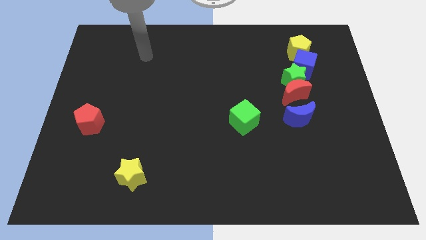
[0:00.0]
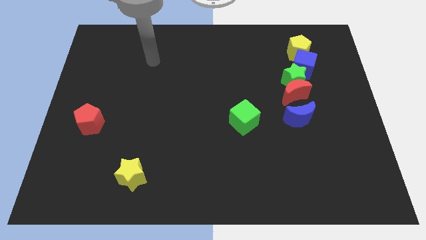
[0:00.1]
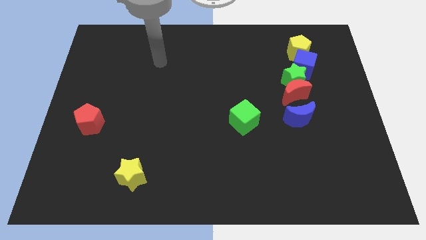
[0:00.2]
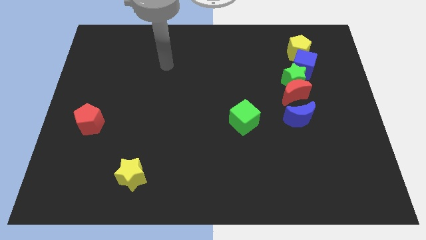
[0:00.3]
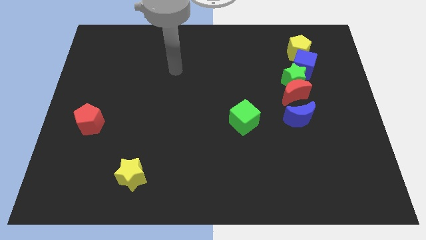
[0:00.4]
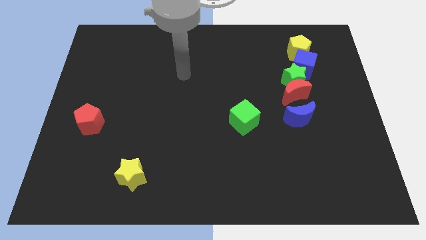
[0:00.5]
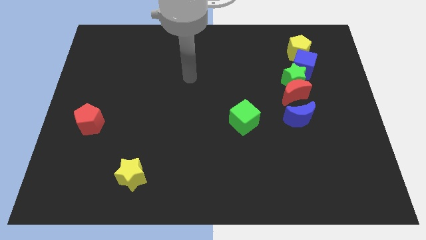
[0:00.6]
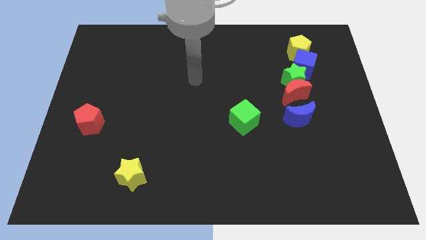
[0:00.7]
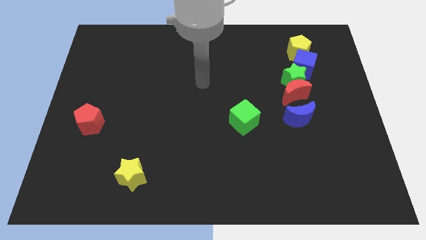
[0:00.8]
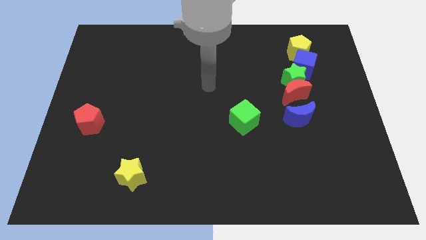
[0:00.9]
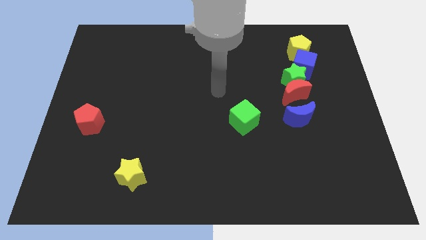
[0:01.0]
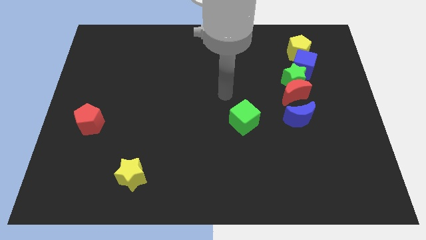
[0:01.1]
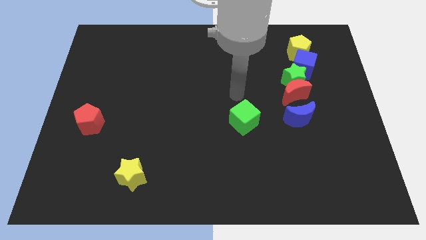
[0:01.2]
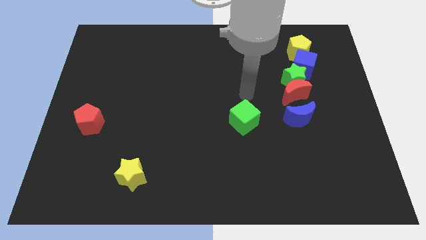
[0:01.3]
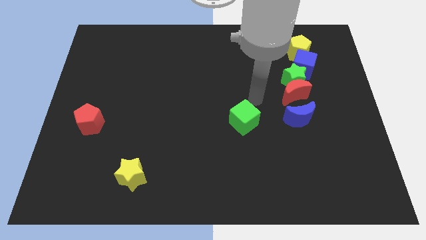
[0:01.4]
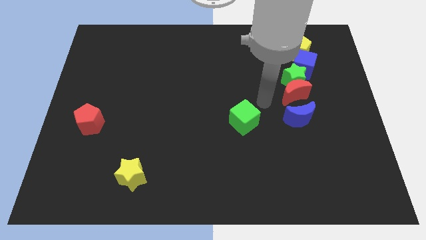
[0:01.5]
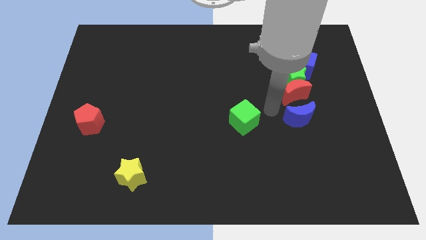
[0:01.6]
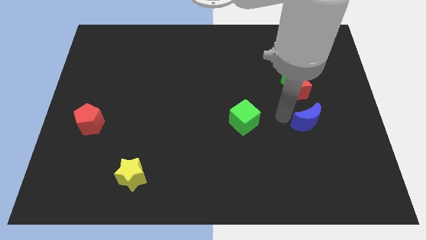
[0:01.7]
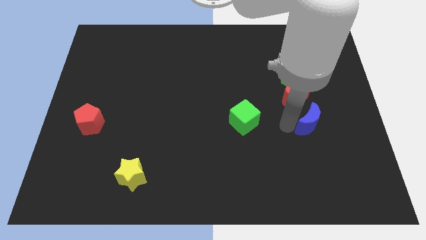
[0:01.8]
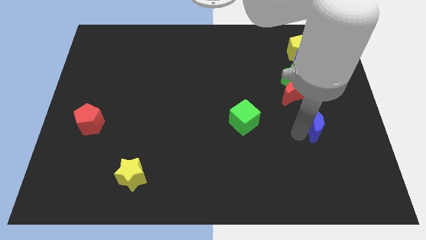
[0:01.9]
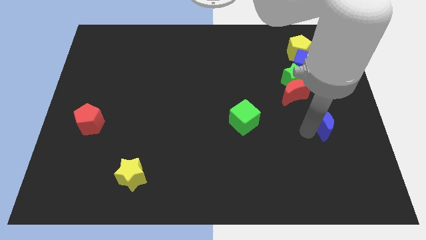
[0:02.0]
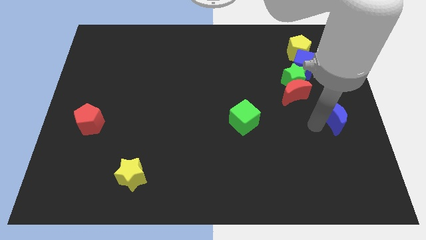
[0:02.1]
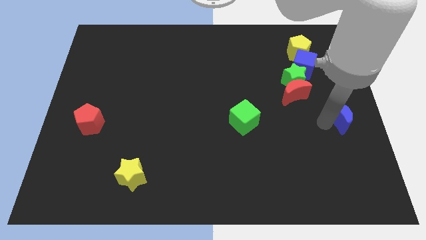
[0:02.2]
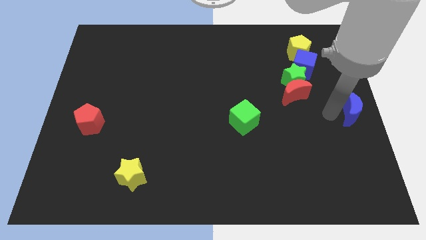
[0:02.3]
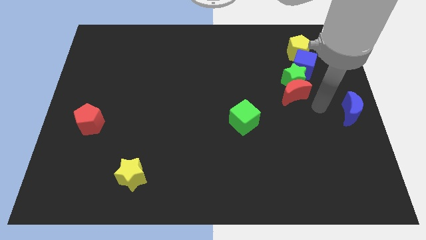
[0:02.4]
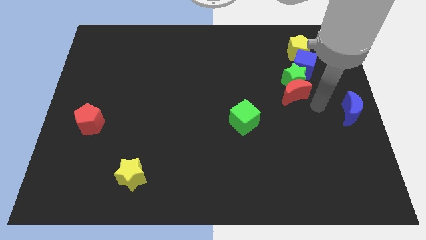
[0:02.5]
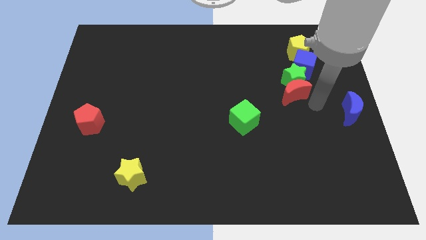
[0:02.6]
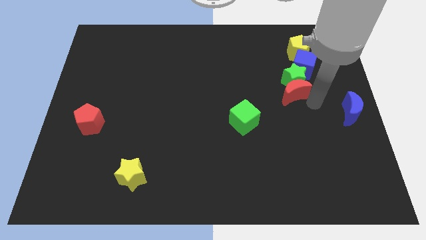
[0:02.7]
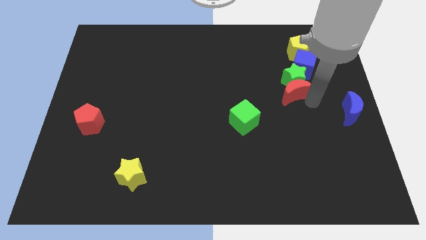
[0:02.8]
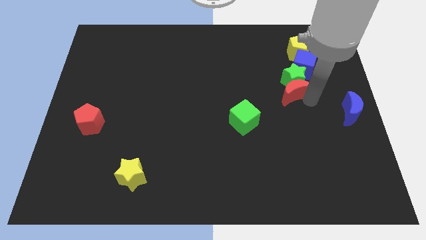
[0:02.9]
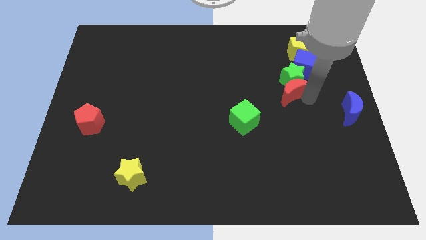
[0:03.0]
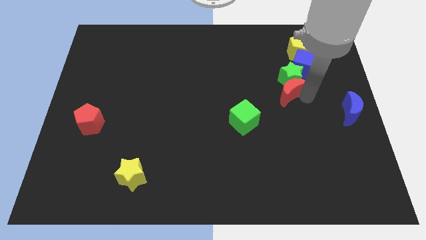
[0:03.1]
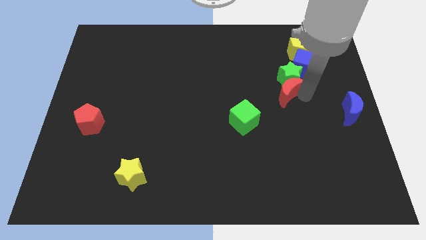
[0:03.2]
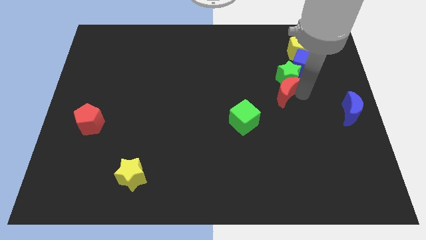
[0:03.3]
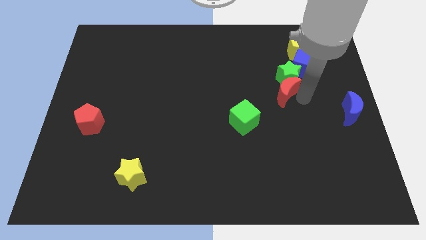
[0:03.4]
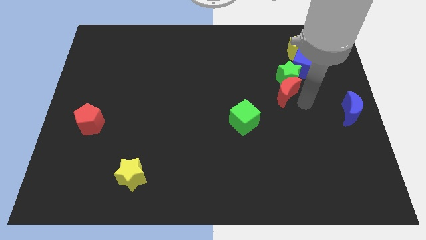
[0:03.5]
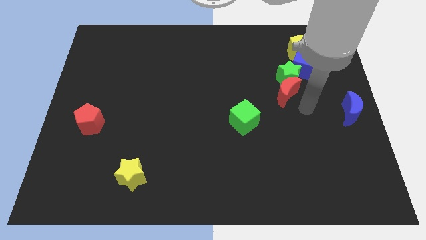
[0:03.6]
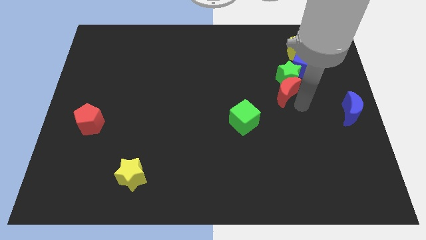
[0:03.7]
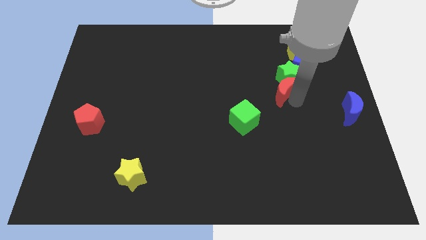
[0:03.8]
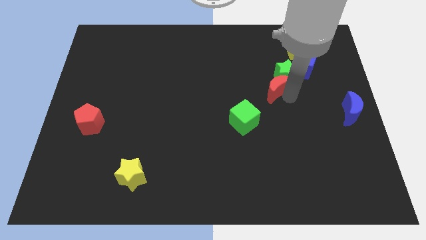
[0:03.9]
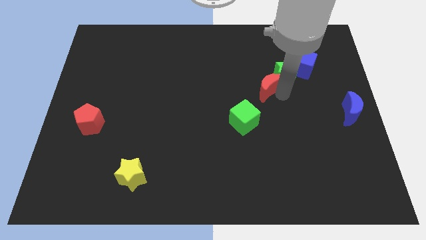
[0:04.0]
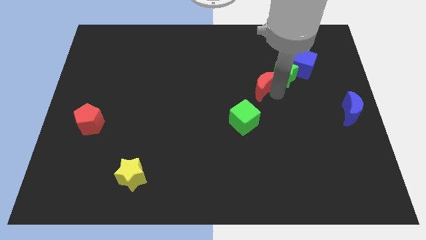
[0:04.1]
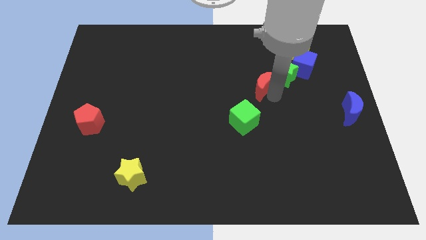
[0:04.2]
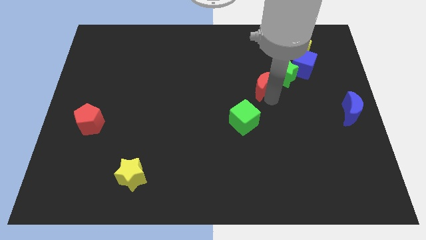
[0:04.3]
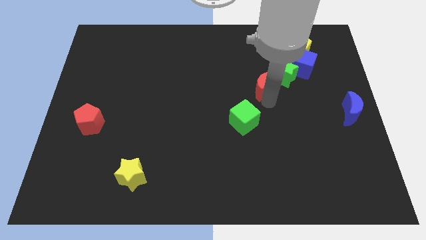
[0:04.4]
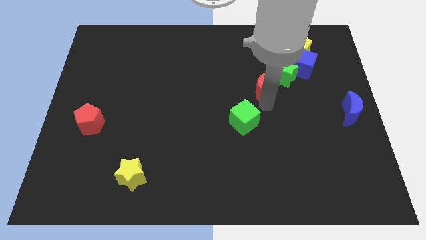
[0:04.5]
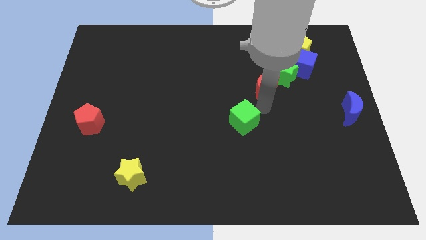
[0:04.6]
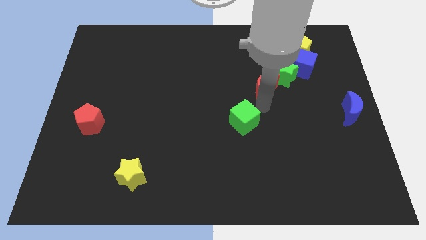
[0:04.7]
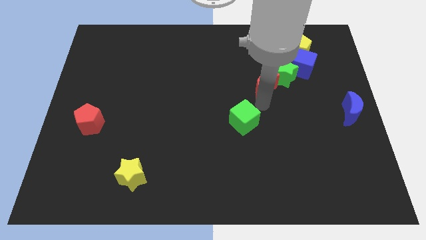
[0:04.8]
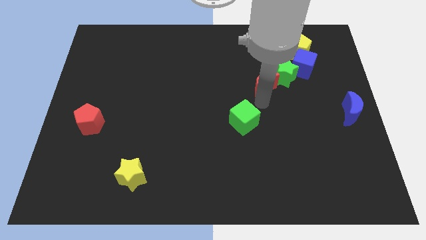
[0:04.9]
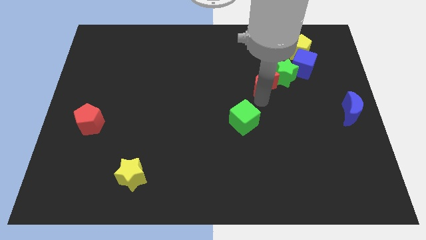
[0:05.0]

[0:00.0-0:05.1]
slightly push the red moon diagonally up and left

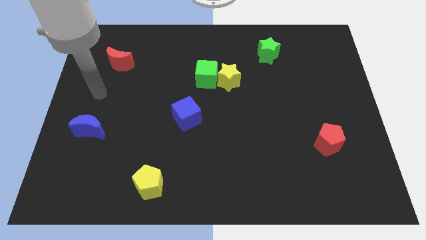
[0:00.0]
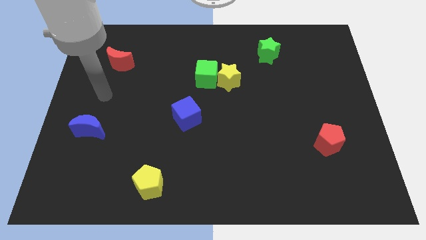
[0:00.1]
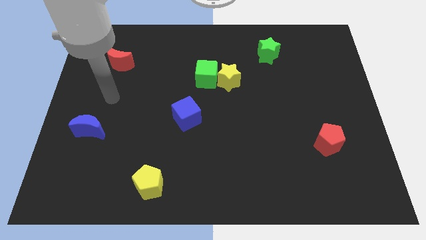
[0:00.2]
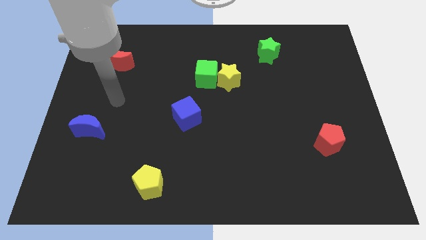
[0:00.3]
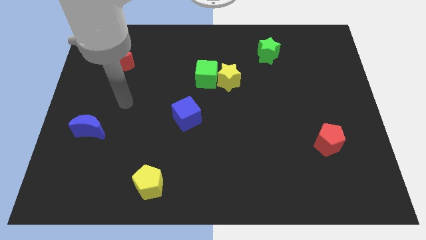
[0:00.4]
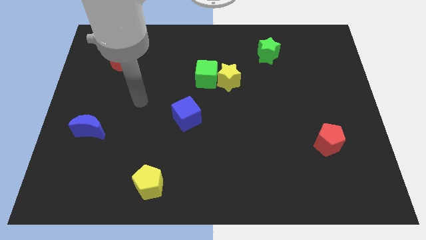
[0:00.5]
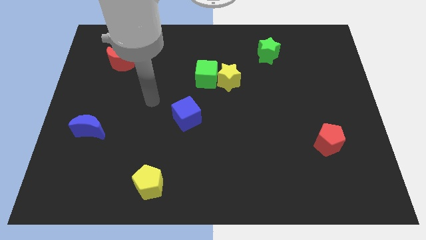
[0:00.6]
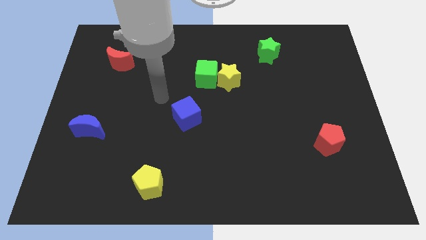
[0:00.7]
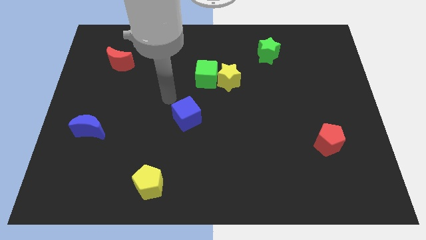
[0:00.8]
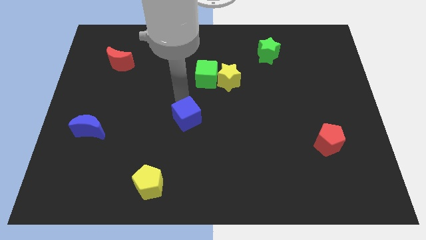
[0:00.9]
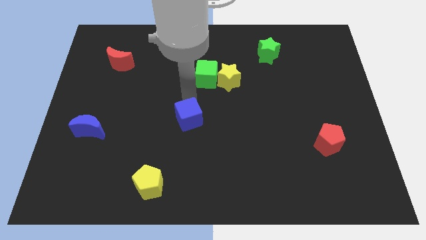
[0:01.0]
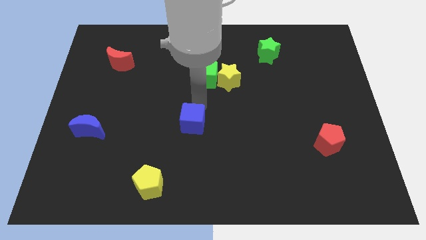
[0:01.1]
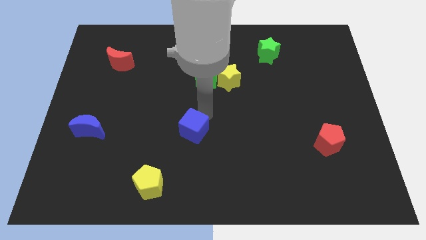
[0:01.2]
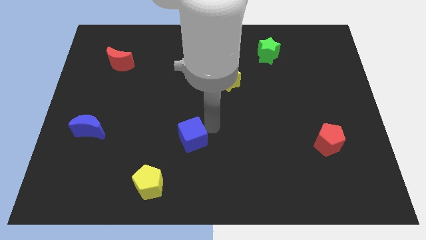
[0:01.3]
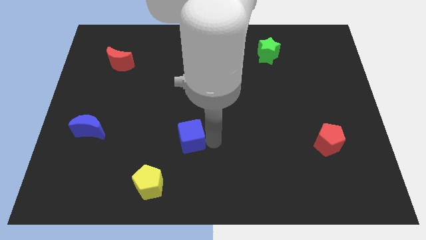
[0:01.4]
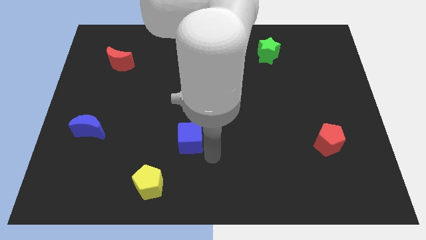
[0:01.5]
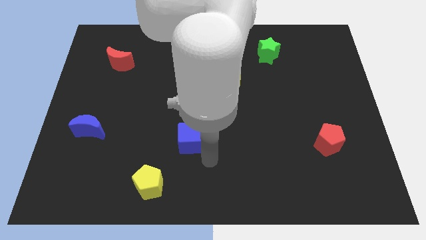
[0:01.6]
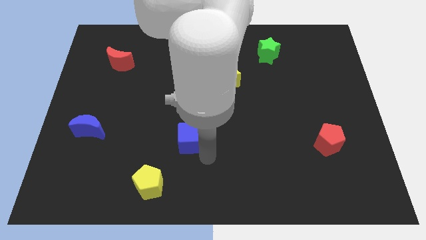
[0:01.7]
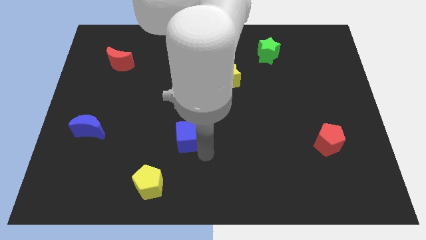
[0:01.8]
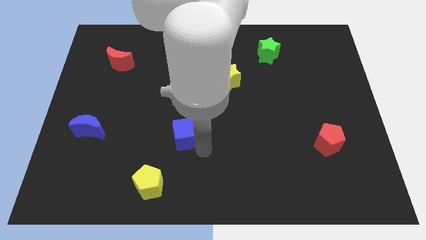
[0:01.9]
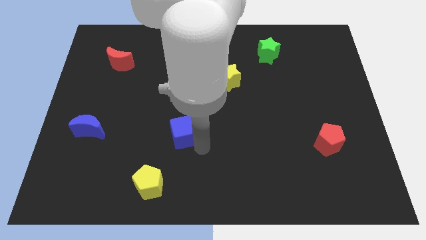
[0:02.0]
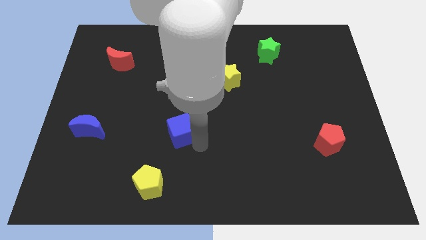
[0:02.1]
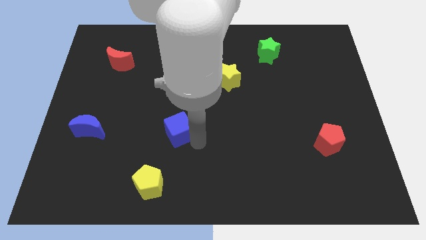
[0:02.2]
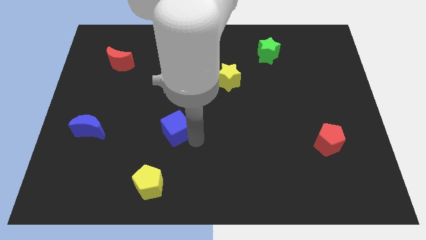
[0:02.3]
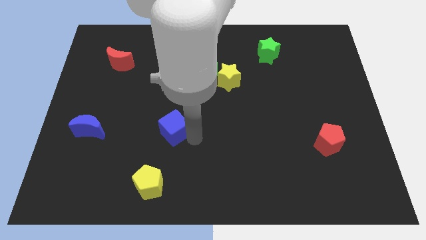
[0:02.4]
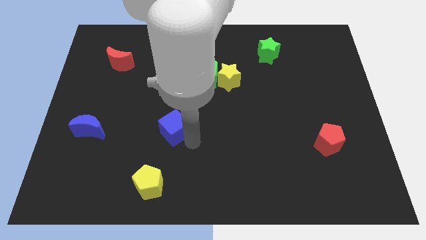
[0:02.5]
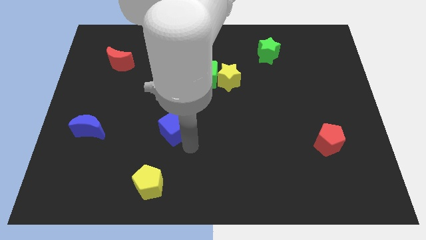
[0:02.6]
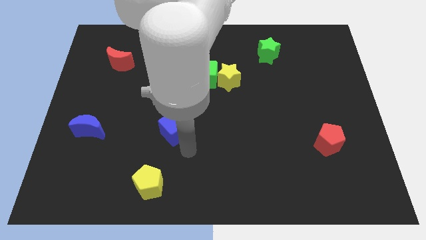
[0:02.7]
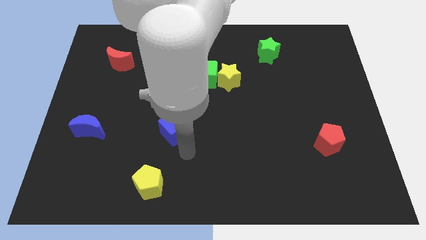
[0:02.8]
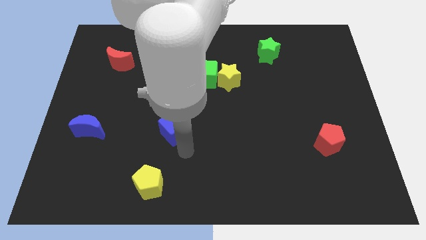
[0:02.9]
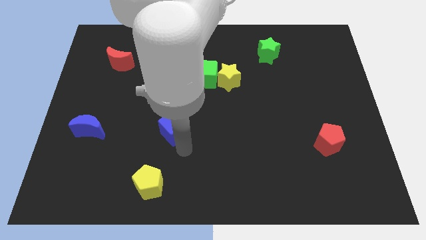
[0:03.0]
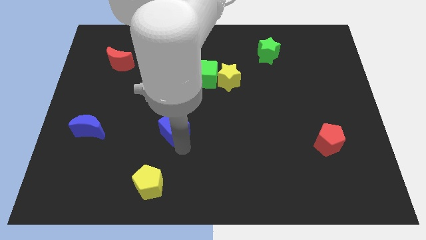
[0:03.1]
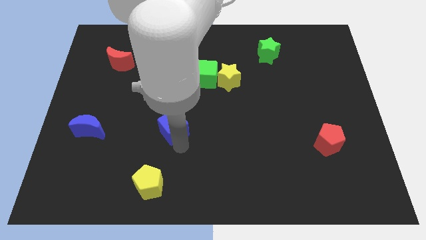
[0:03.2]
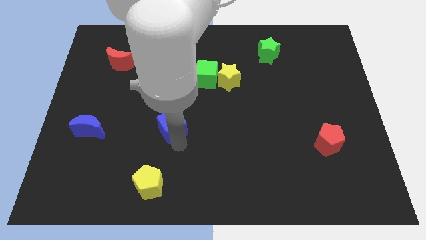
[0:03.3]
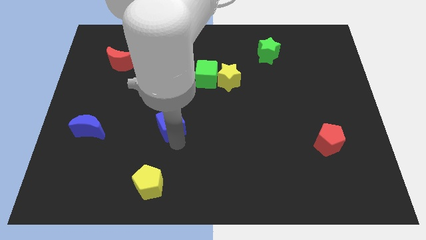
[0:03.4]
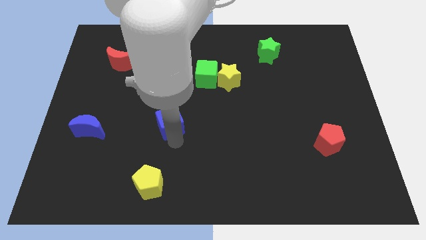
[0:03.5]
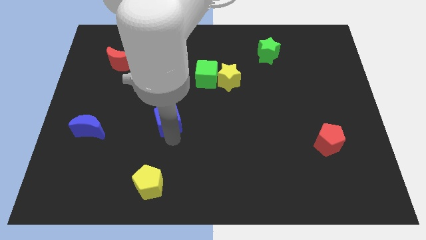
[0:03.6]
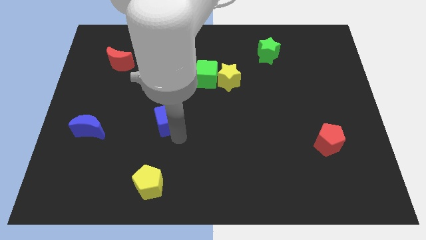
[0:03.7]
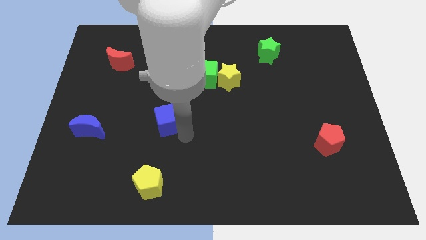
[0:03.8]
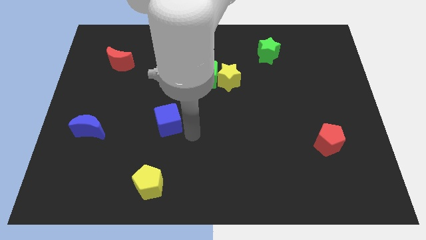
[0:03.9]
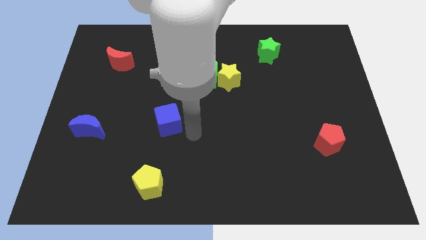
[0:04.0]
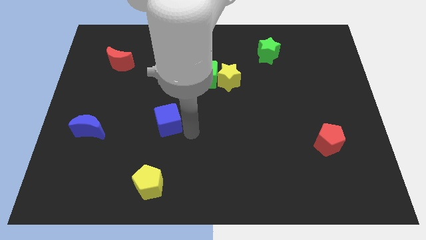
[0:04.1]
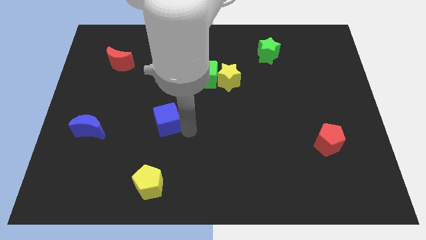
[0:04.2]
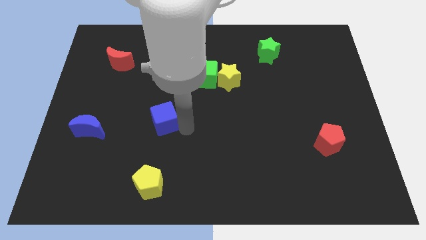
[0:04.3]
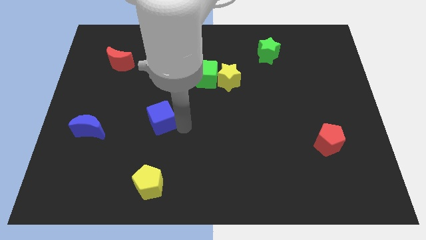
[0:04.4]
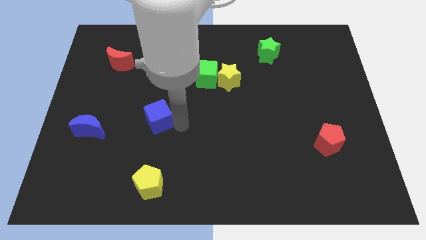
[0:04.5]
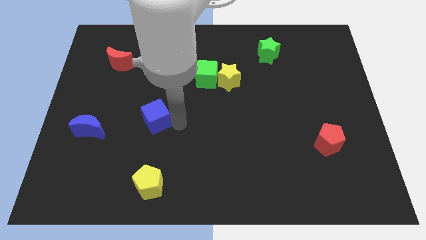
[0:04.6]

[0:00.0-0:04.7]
push the blue cube to the left a bit
